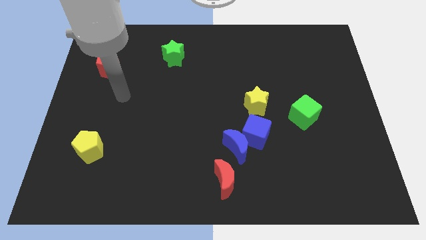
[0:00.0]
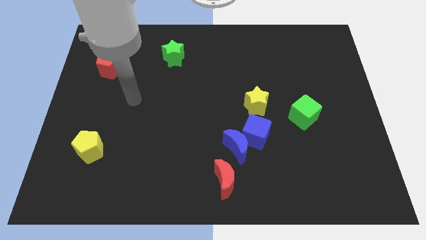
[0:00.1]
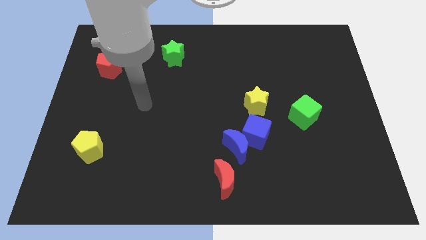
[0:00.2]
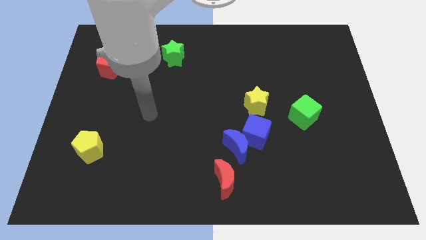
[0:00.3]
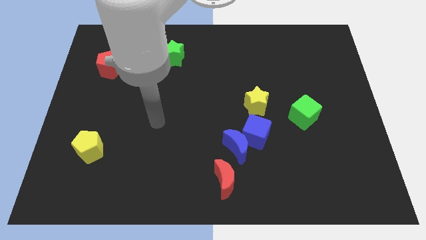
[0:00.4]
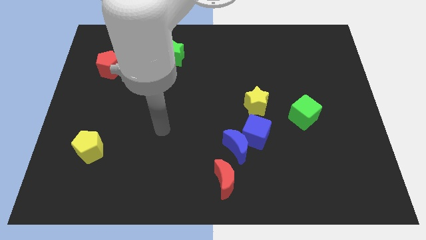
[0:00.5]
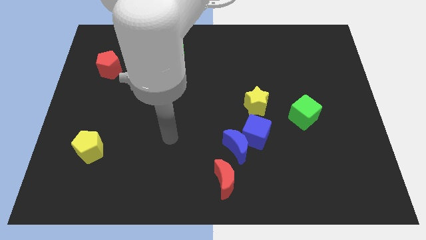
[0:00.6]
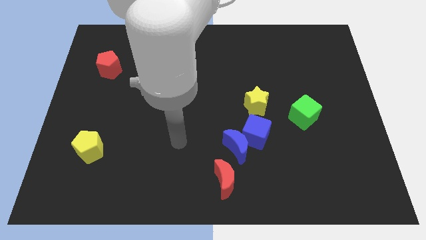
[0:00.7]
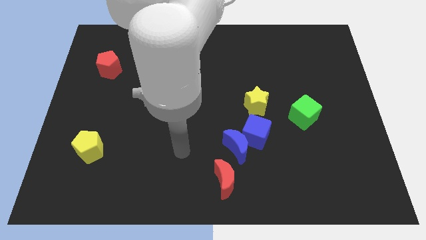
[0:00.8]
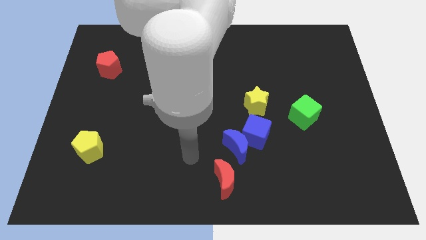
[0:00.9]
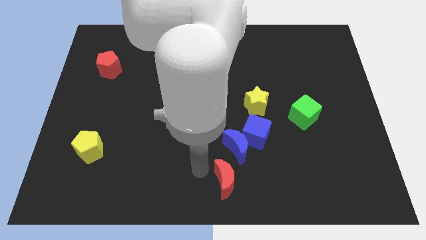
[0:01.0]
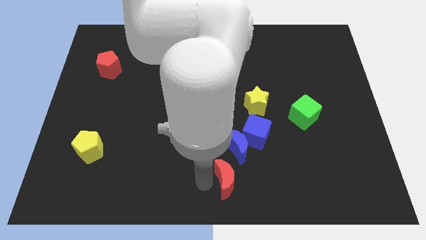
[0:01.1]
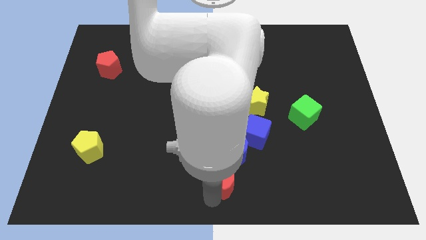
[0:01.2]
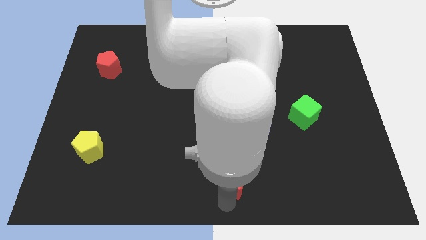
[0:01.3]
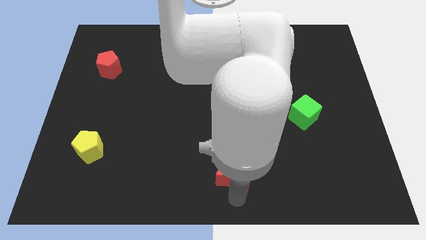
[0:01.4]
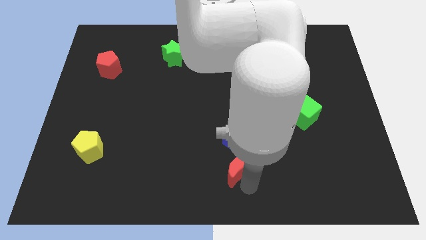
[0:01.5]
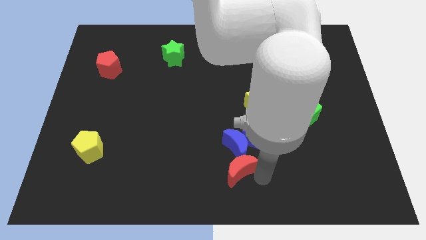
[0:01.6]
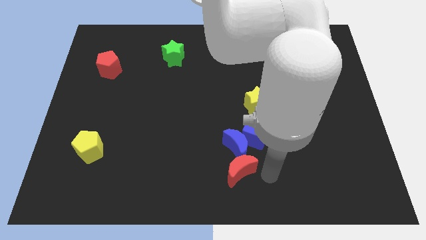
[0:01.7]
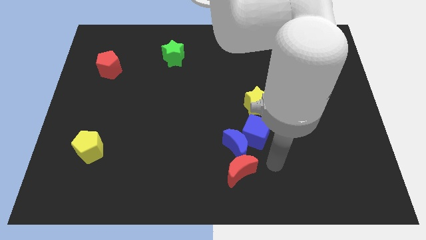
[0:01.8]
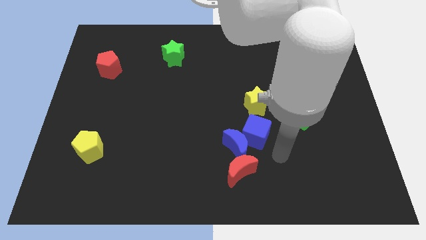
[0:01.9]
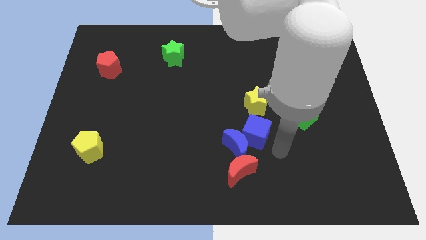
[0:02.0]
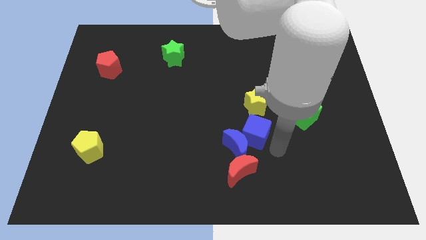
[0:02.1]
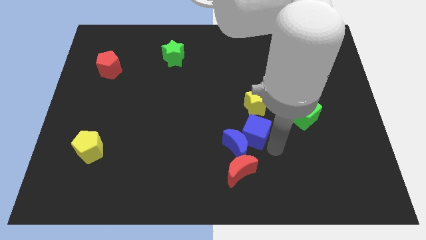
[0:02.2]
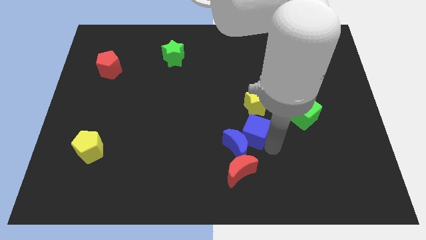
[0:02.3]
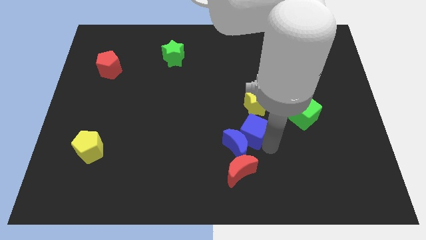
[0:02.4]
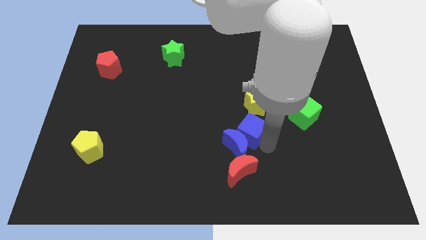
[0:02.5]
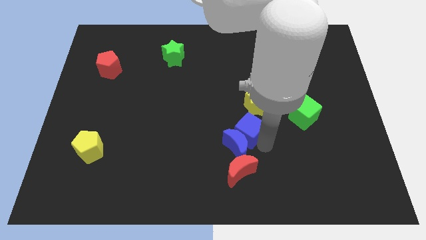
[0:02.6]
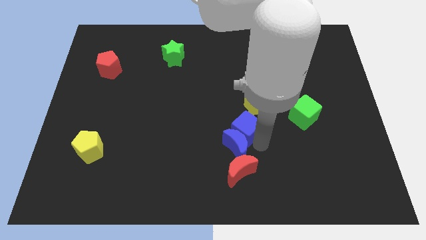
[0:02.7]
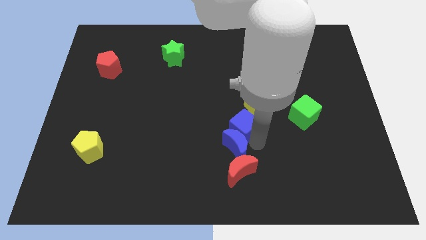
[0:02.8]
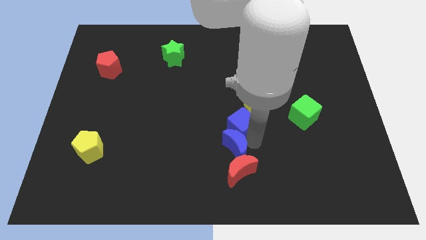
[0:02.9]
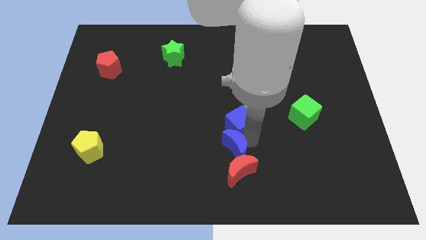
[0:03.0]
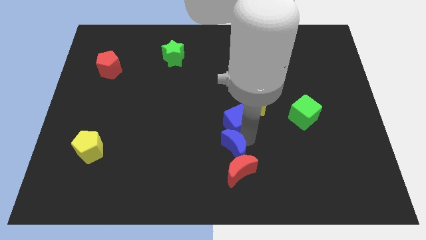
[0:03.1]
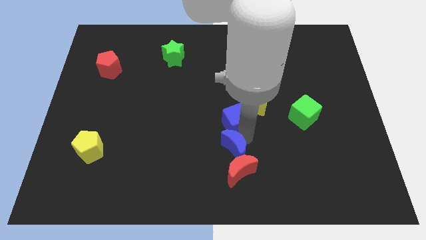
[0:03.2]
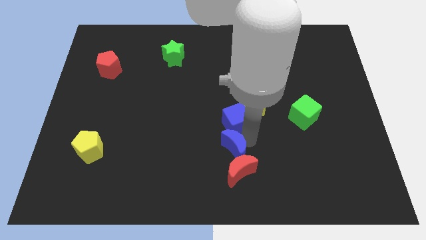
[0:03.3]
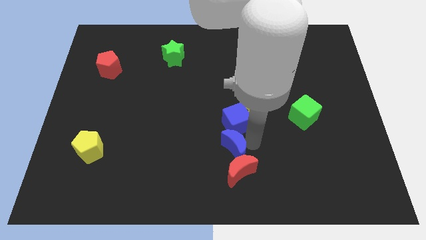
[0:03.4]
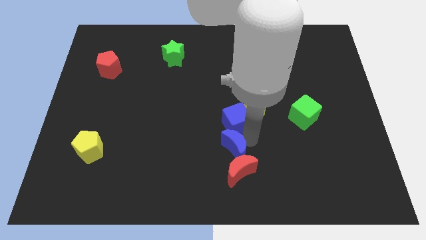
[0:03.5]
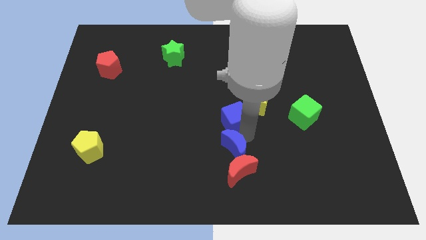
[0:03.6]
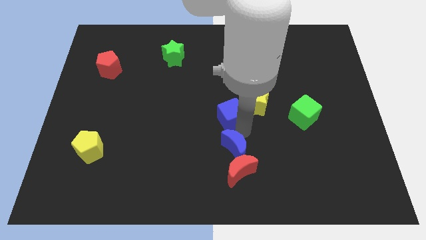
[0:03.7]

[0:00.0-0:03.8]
push the blue cube upwards and to the left a little

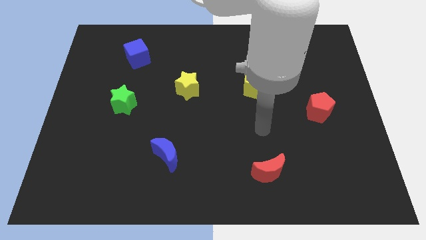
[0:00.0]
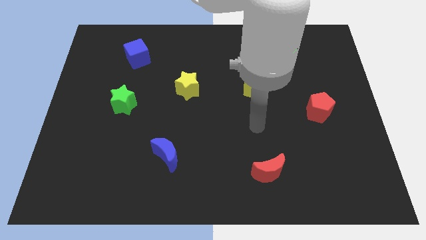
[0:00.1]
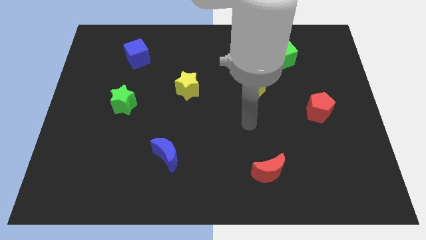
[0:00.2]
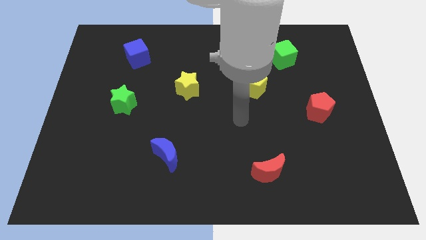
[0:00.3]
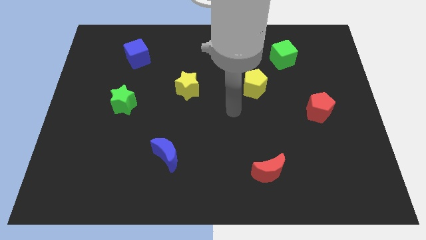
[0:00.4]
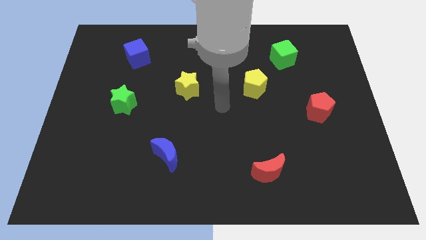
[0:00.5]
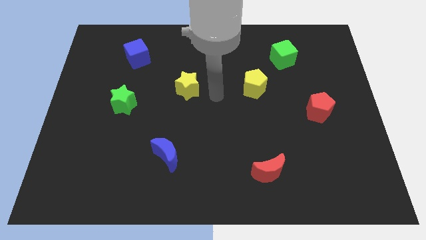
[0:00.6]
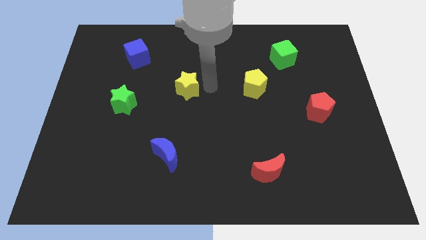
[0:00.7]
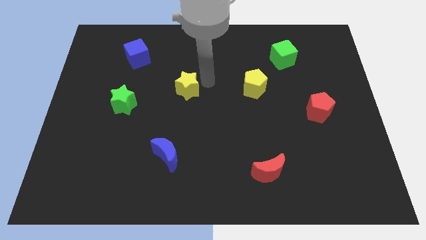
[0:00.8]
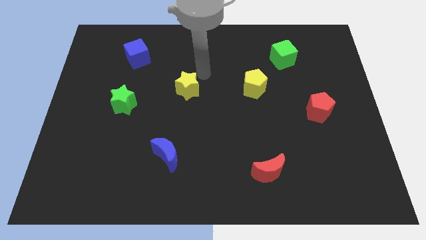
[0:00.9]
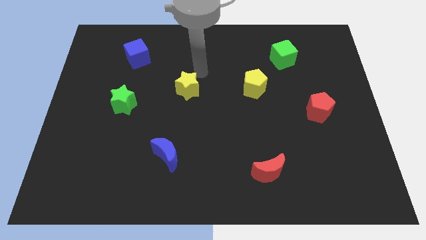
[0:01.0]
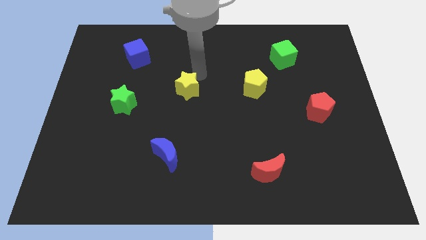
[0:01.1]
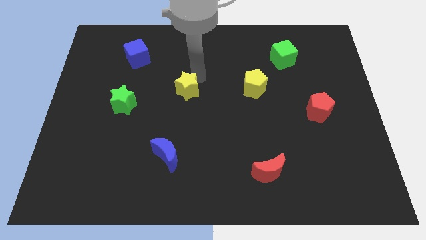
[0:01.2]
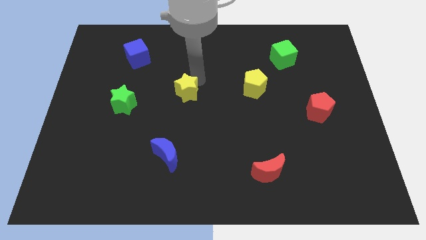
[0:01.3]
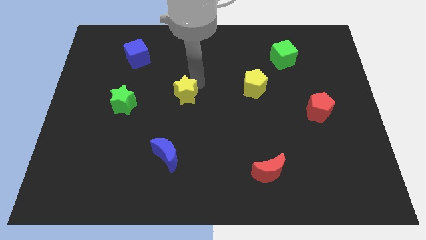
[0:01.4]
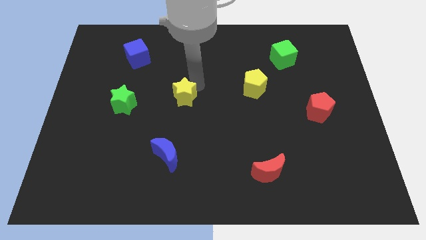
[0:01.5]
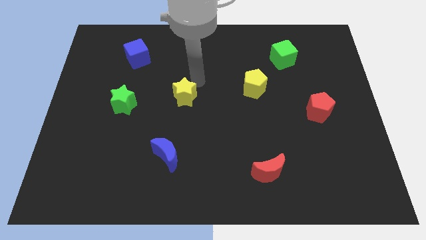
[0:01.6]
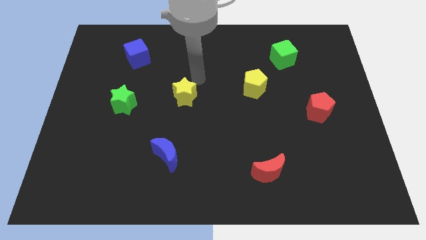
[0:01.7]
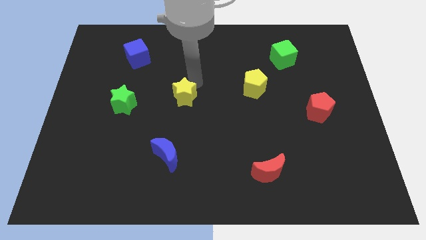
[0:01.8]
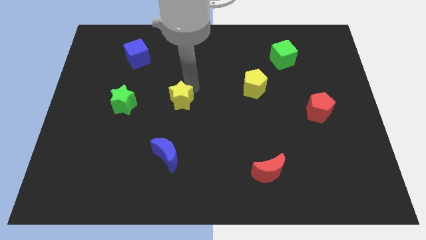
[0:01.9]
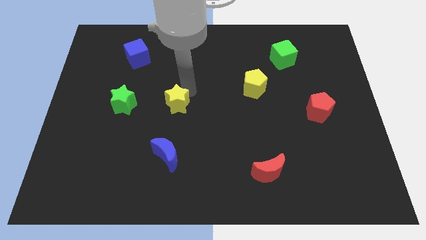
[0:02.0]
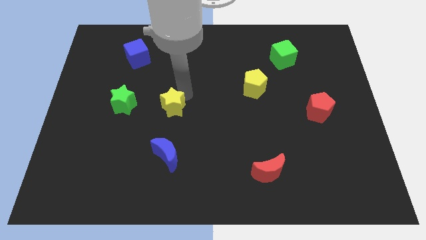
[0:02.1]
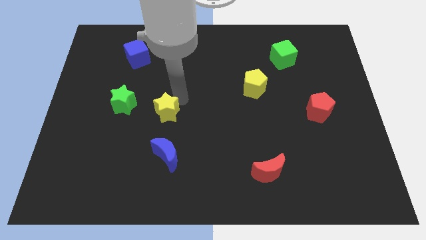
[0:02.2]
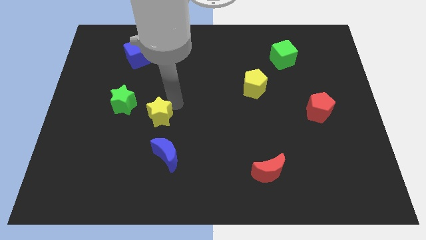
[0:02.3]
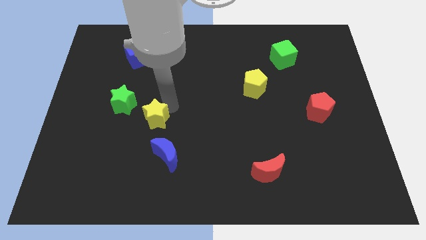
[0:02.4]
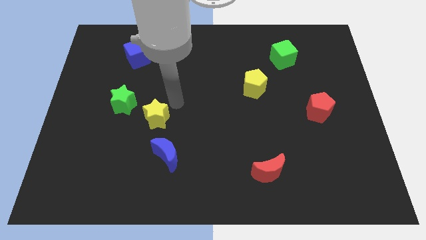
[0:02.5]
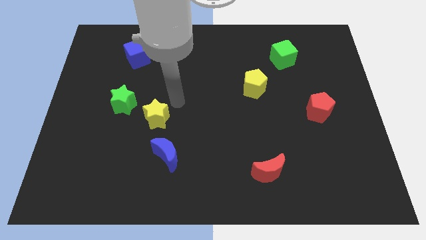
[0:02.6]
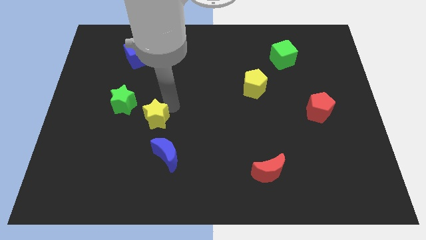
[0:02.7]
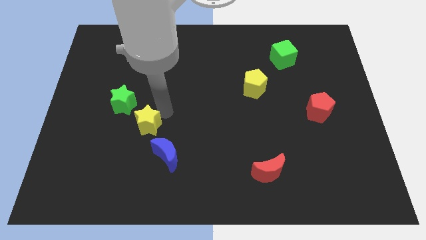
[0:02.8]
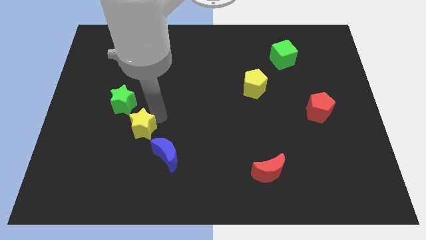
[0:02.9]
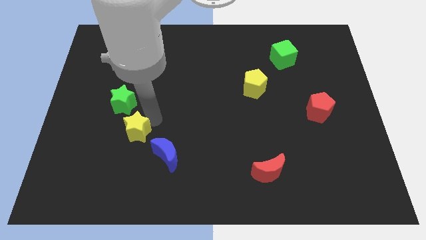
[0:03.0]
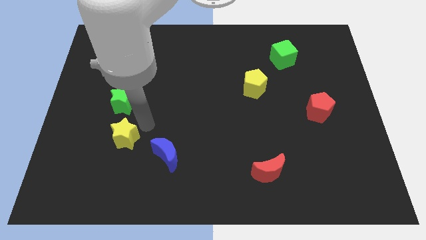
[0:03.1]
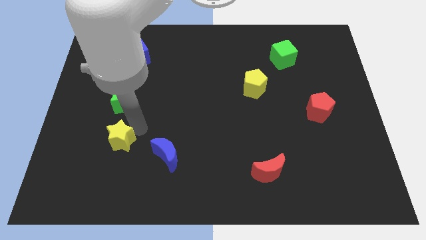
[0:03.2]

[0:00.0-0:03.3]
push the yellow star downwards and to the left

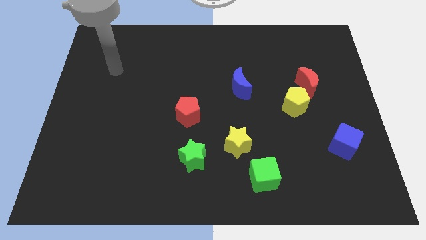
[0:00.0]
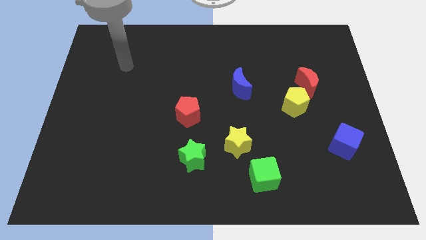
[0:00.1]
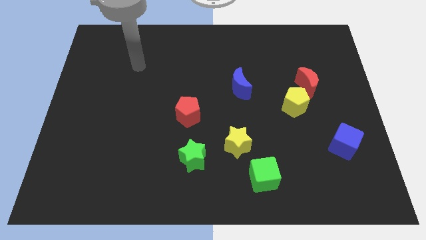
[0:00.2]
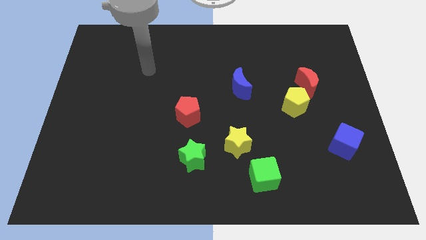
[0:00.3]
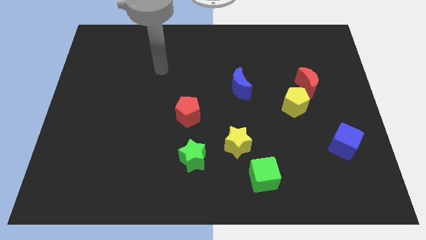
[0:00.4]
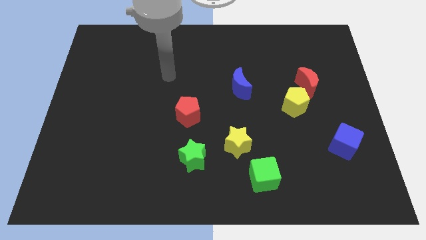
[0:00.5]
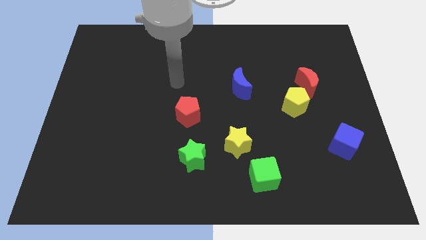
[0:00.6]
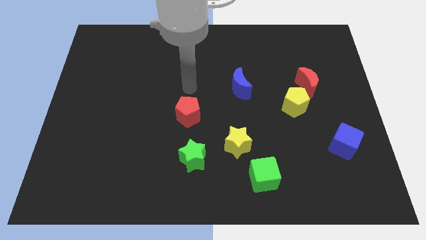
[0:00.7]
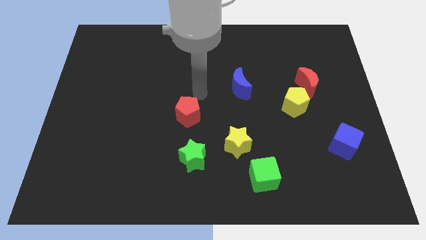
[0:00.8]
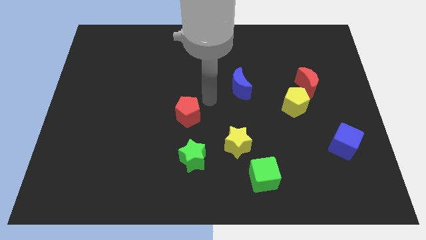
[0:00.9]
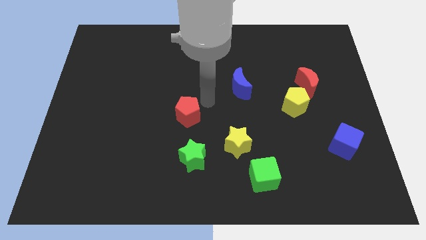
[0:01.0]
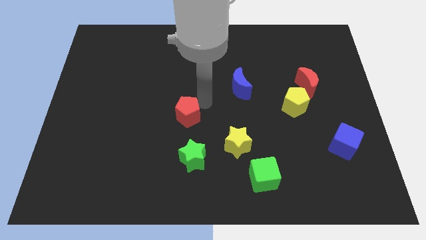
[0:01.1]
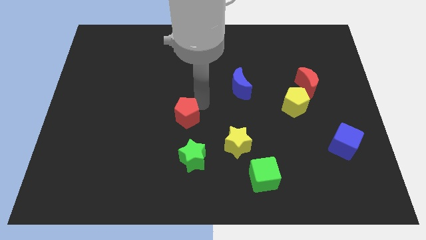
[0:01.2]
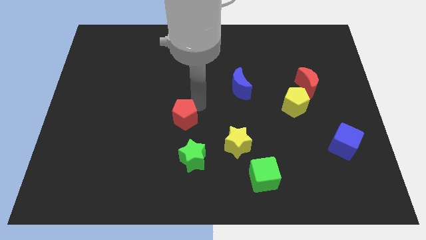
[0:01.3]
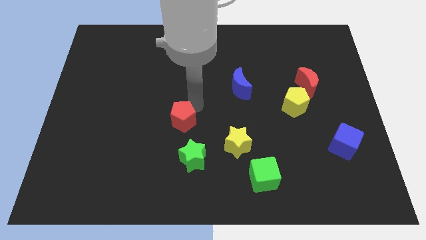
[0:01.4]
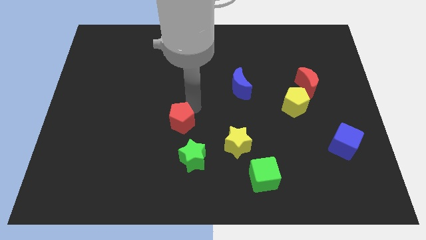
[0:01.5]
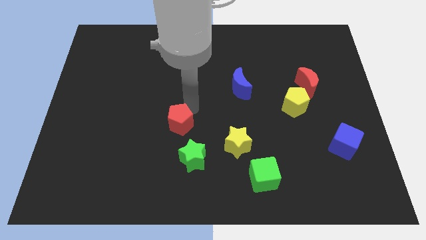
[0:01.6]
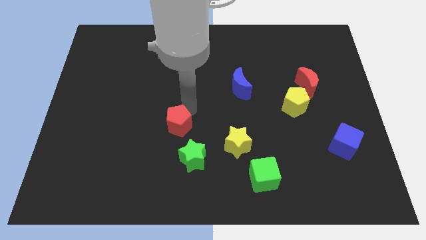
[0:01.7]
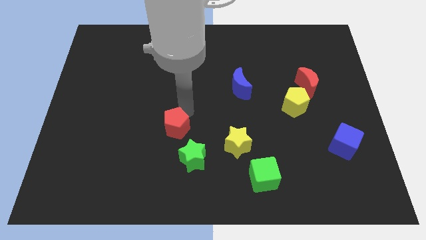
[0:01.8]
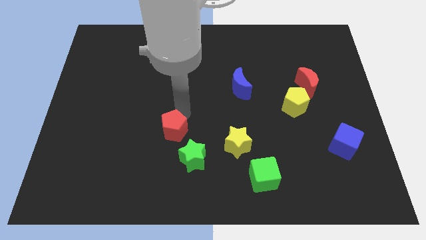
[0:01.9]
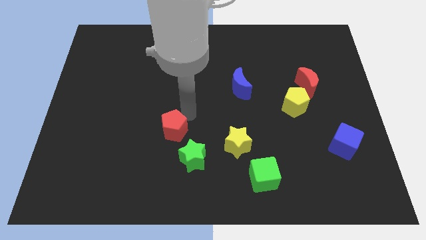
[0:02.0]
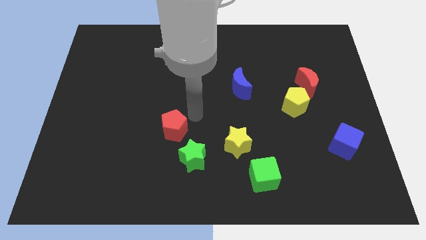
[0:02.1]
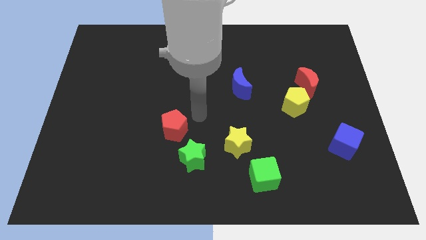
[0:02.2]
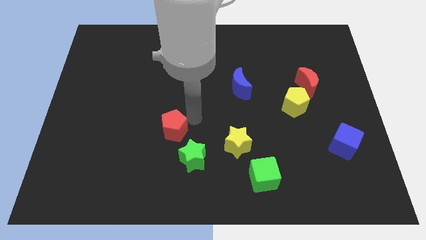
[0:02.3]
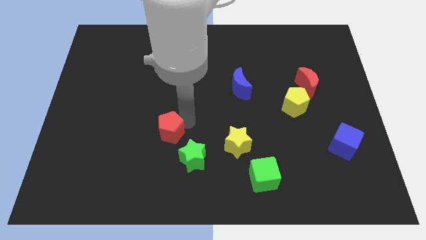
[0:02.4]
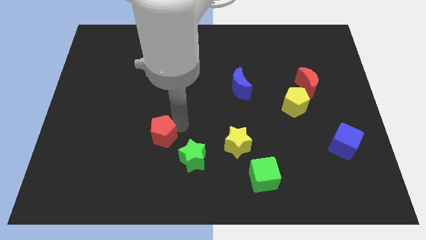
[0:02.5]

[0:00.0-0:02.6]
move the red pentagon downwards and left diagonally somewhat
